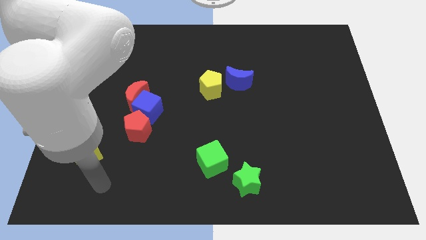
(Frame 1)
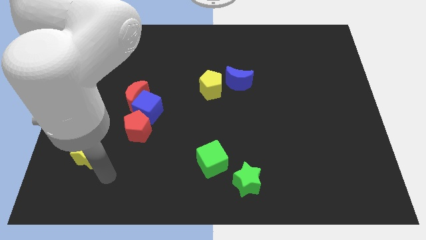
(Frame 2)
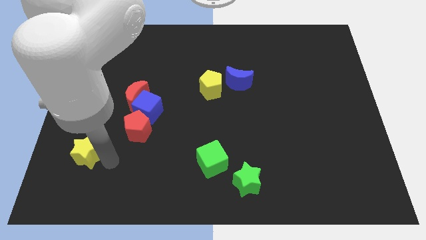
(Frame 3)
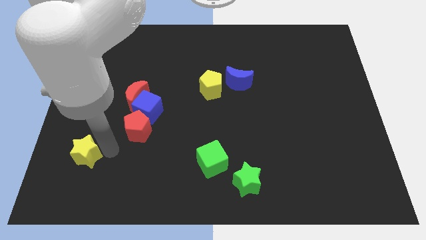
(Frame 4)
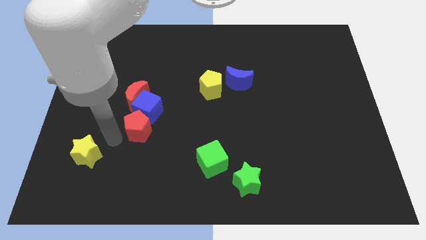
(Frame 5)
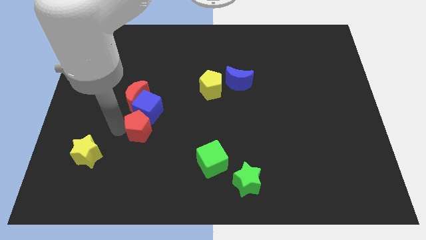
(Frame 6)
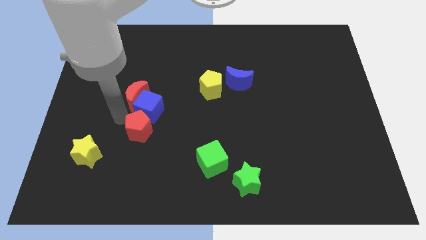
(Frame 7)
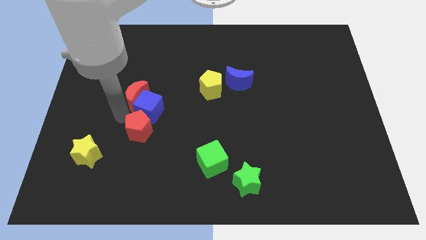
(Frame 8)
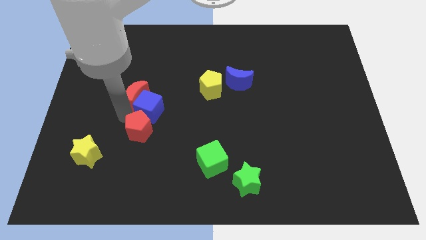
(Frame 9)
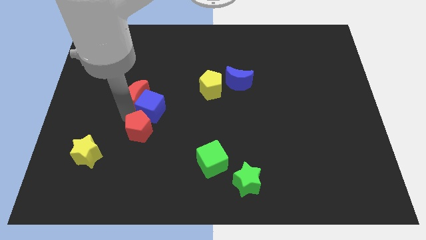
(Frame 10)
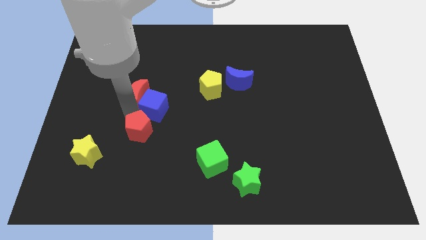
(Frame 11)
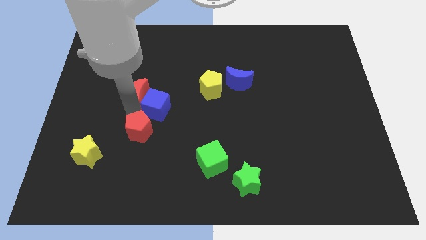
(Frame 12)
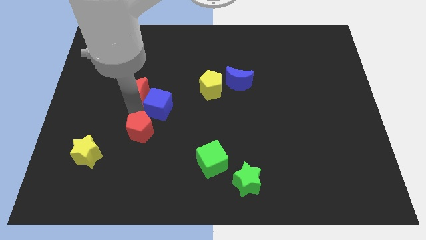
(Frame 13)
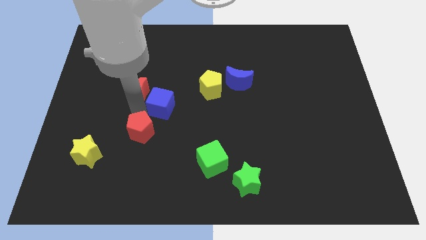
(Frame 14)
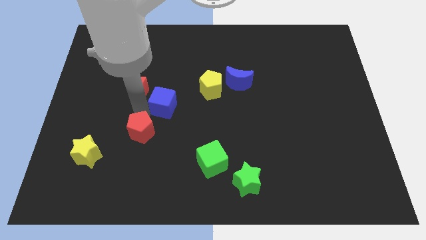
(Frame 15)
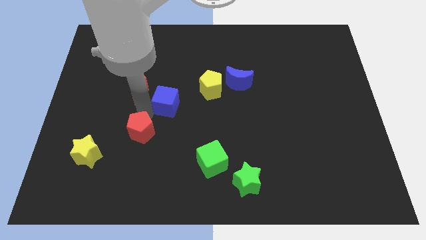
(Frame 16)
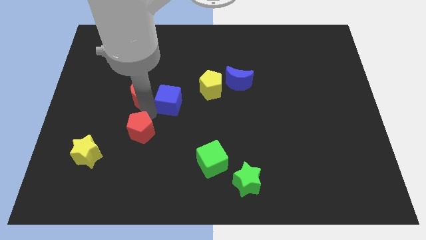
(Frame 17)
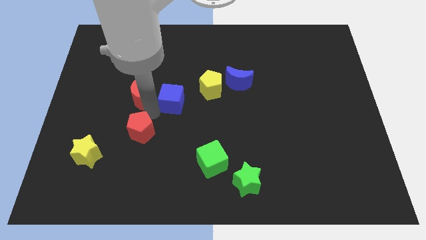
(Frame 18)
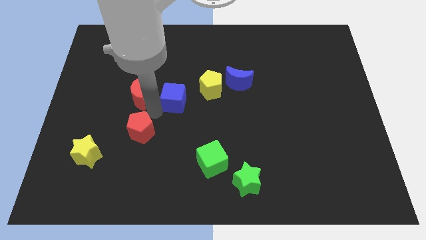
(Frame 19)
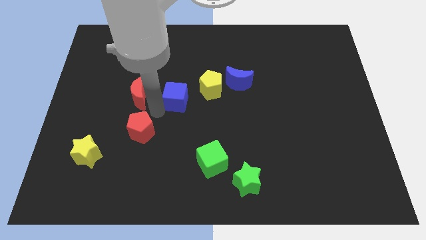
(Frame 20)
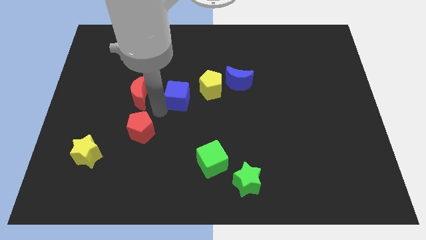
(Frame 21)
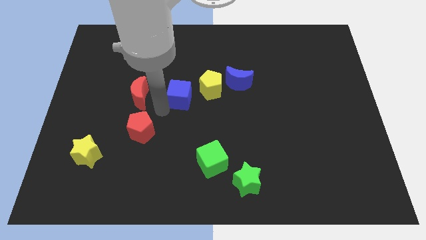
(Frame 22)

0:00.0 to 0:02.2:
separate the blue cube from the red moon and red pentagon

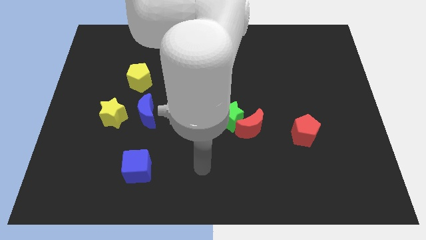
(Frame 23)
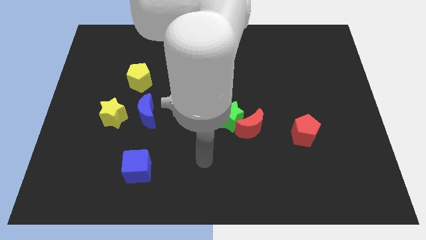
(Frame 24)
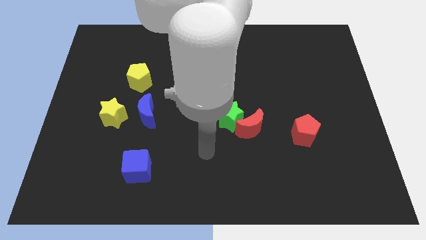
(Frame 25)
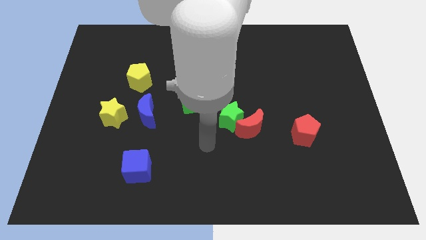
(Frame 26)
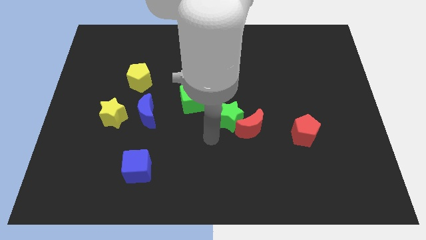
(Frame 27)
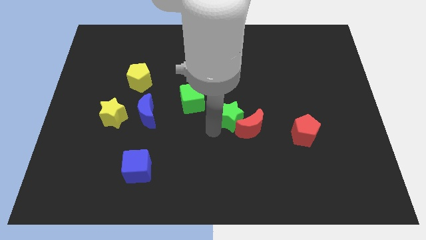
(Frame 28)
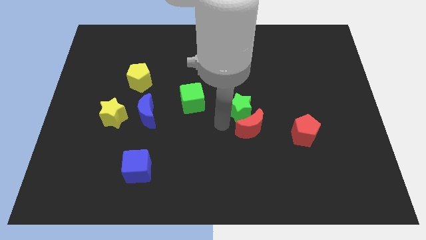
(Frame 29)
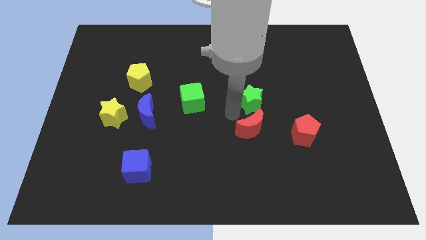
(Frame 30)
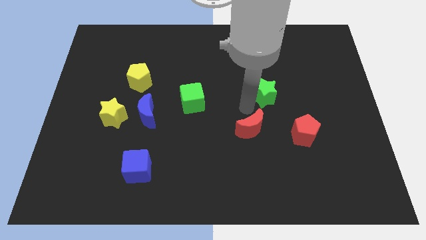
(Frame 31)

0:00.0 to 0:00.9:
move the red moon away from the green star

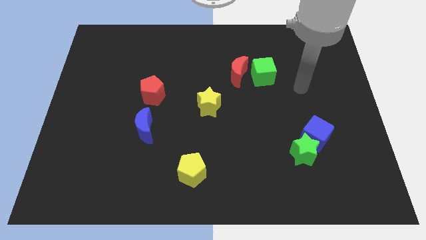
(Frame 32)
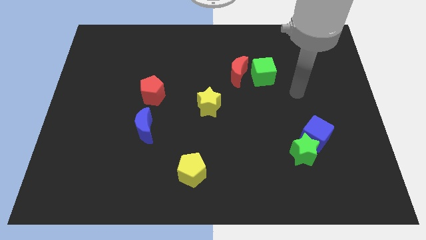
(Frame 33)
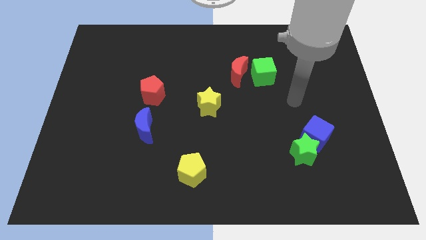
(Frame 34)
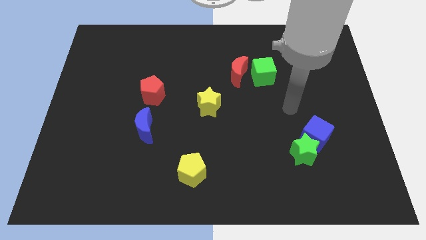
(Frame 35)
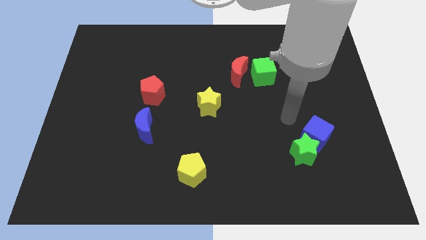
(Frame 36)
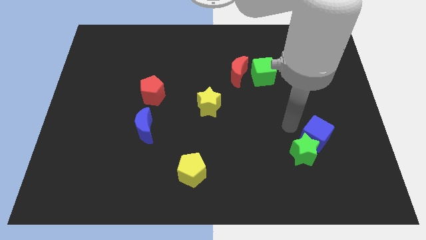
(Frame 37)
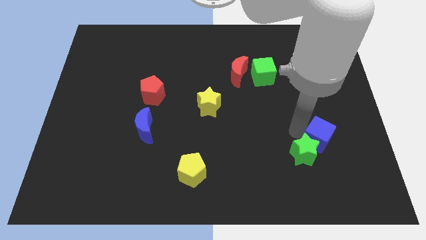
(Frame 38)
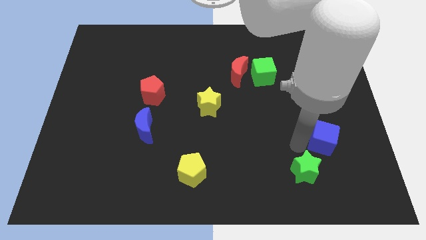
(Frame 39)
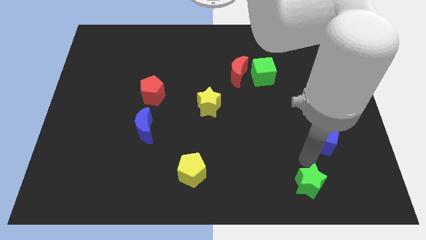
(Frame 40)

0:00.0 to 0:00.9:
separate the blue cube from the green star

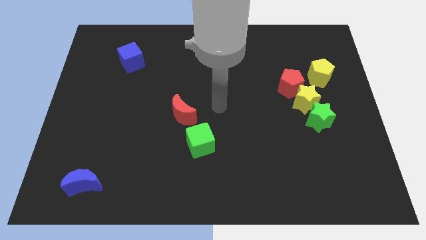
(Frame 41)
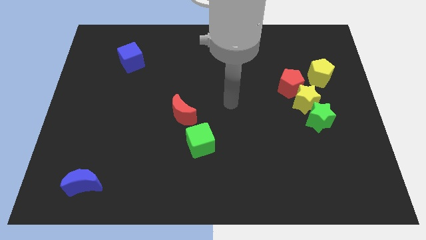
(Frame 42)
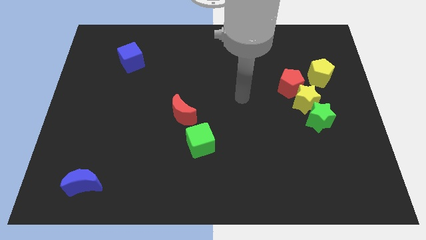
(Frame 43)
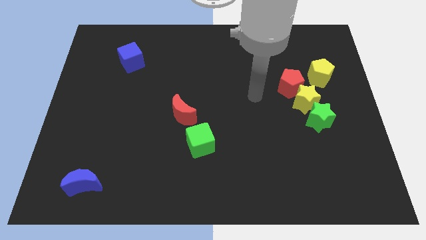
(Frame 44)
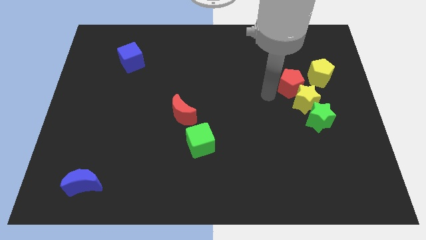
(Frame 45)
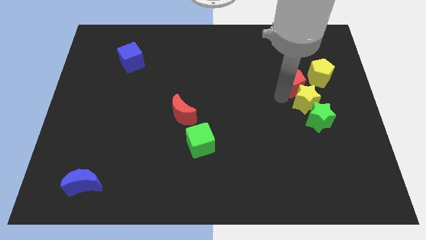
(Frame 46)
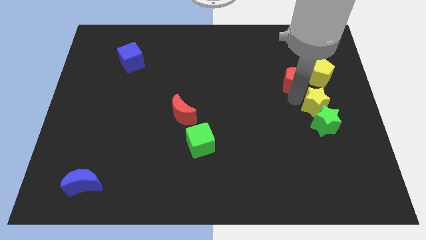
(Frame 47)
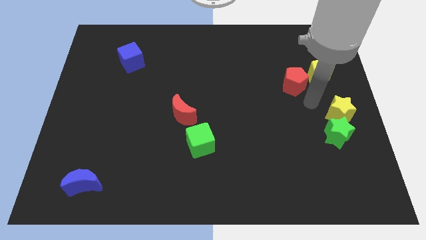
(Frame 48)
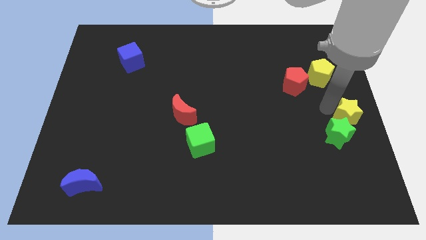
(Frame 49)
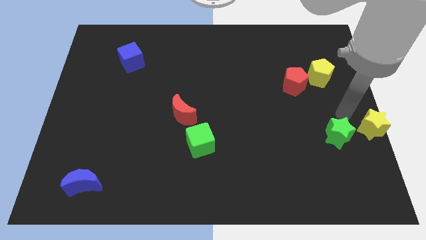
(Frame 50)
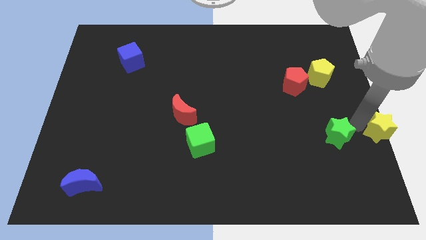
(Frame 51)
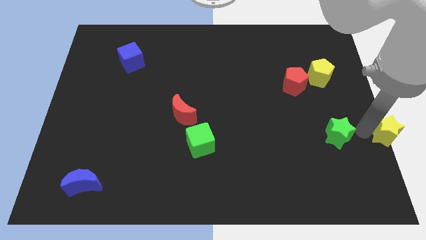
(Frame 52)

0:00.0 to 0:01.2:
pull the green star apart from the yellow star

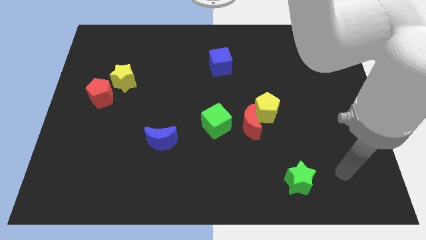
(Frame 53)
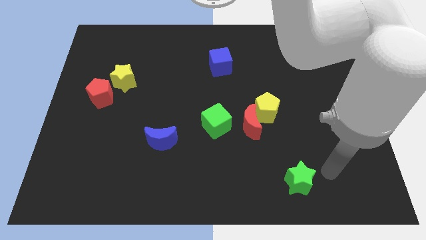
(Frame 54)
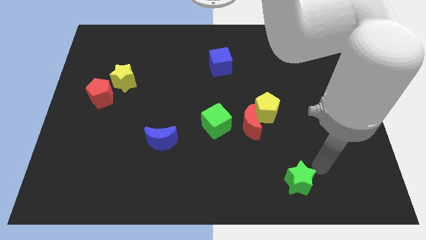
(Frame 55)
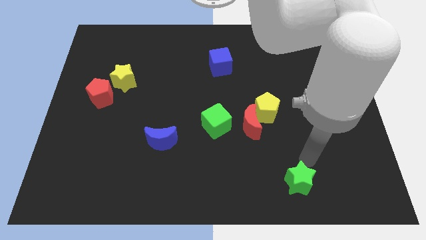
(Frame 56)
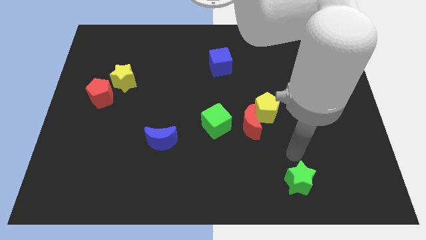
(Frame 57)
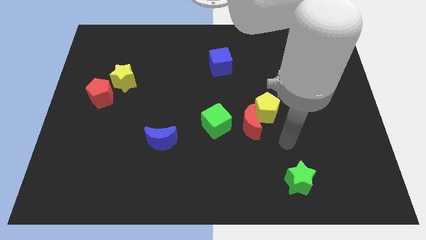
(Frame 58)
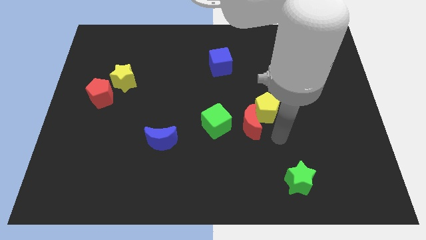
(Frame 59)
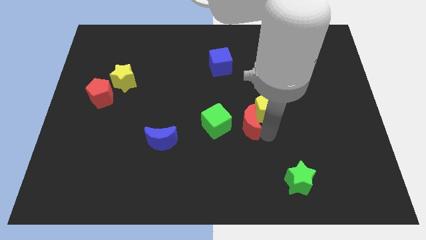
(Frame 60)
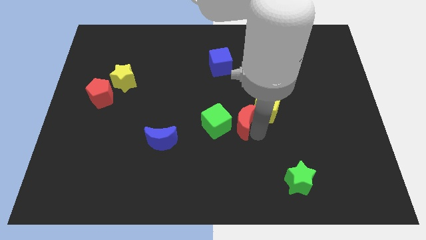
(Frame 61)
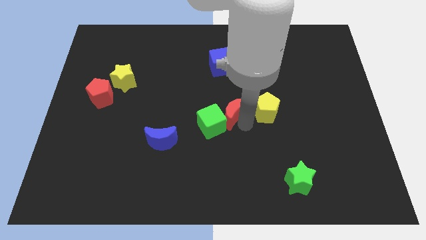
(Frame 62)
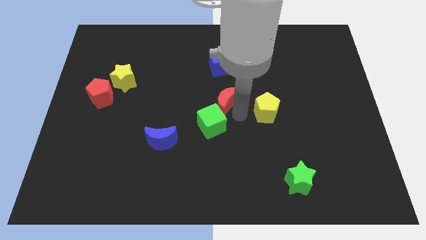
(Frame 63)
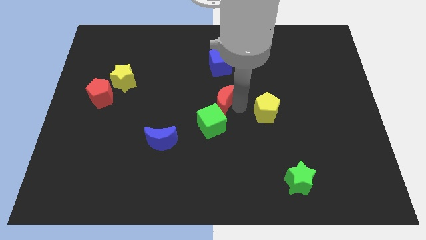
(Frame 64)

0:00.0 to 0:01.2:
pull the yellow pentagon apart from the red moon

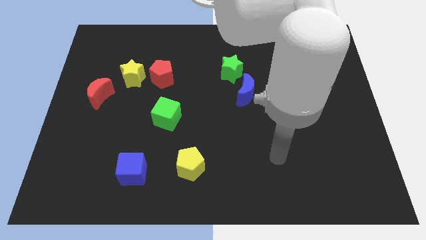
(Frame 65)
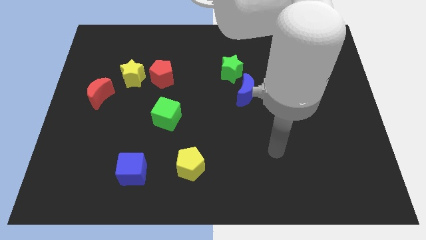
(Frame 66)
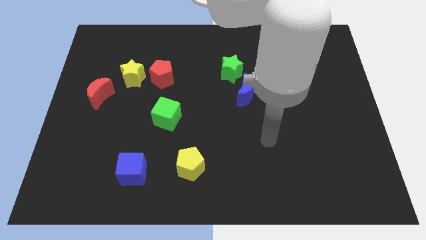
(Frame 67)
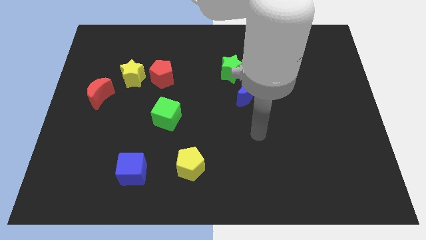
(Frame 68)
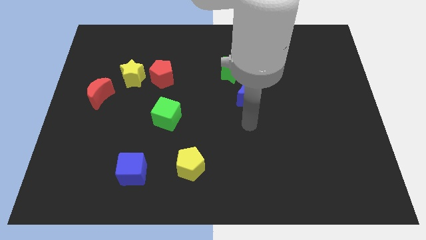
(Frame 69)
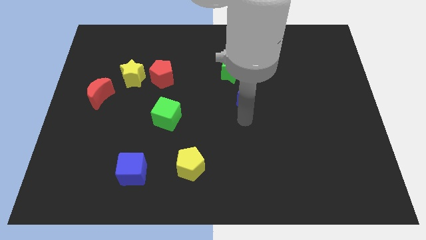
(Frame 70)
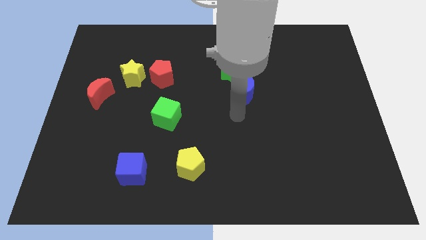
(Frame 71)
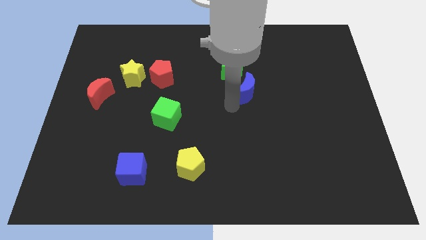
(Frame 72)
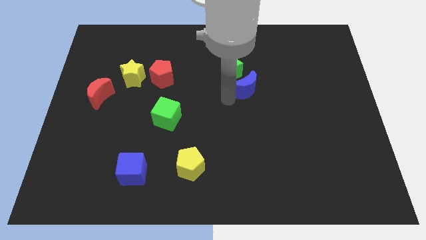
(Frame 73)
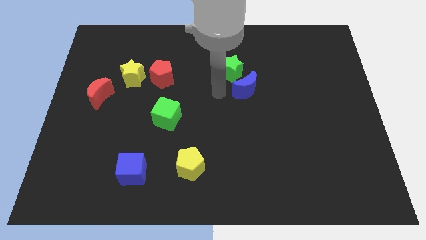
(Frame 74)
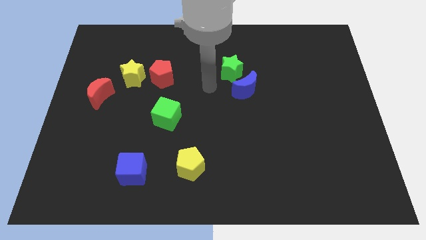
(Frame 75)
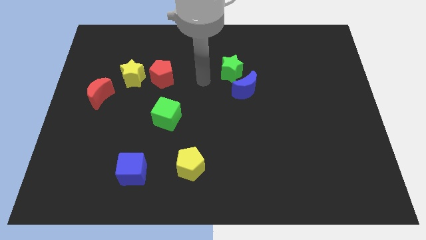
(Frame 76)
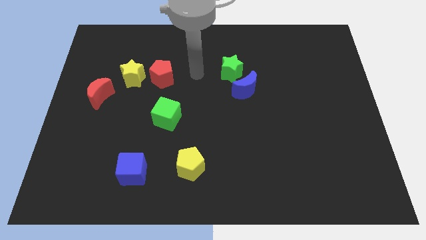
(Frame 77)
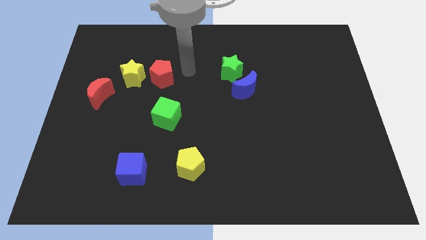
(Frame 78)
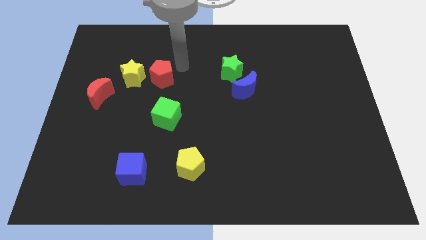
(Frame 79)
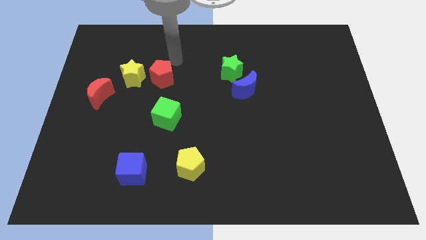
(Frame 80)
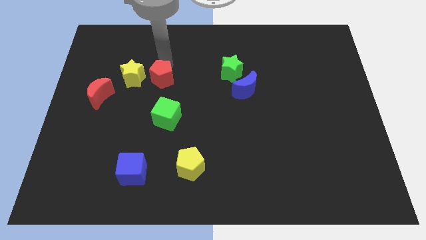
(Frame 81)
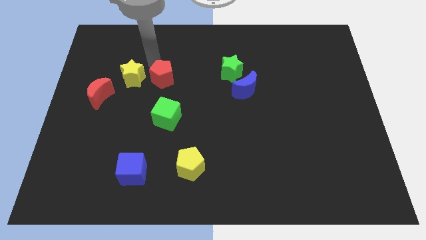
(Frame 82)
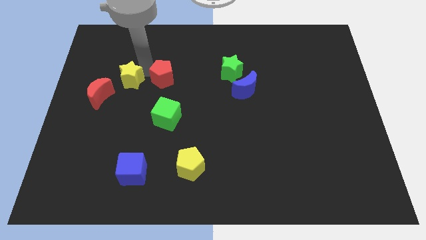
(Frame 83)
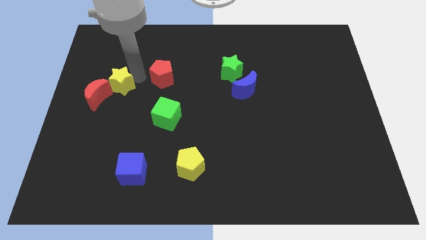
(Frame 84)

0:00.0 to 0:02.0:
separate the red pentagon from the yellow star

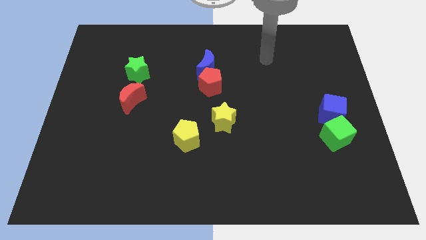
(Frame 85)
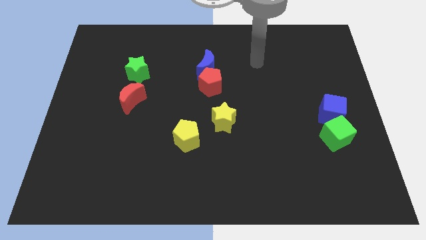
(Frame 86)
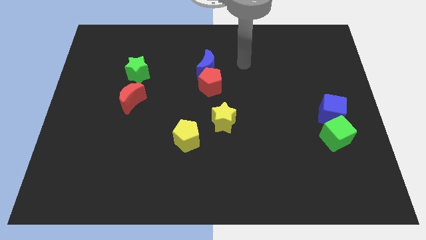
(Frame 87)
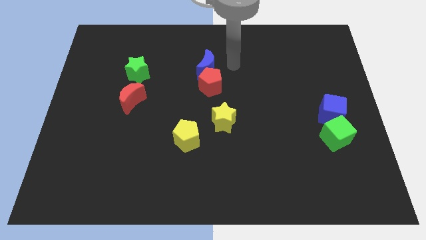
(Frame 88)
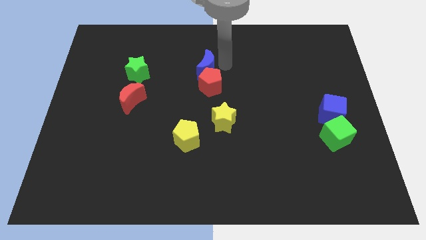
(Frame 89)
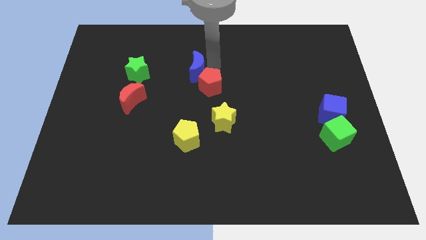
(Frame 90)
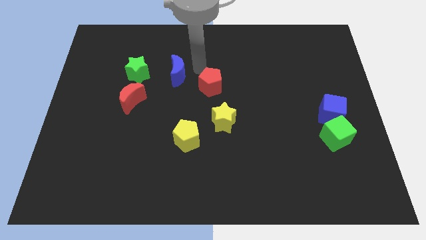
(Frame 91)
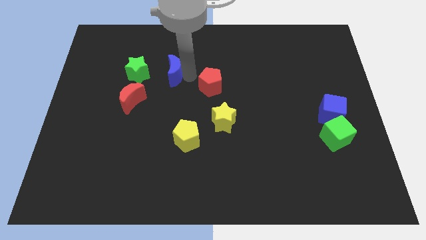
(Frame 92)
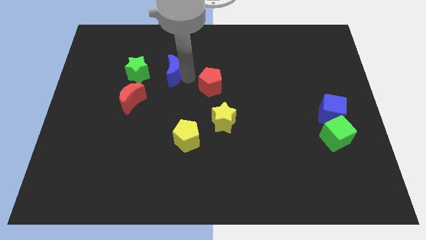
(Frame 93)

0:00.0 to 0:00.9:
pull the red pentagon apart from the blue moon
